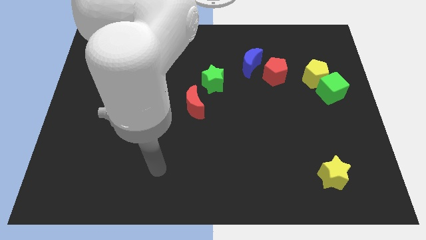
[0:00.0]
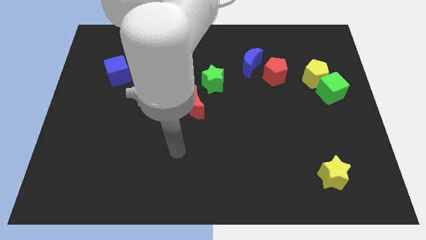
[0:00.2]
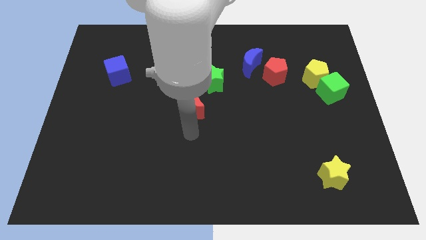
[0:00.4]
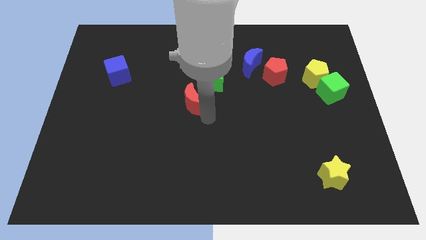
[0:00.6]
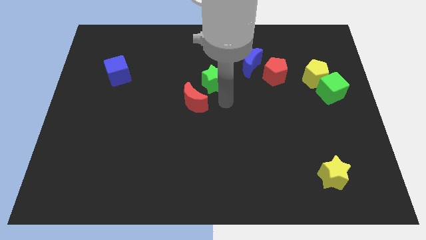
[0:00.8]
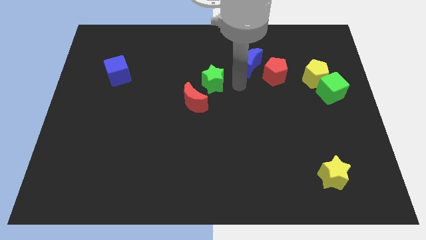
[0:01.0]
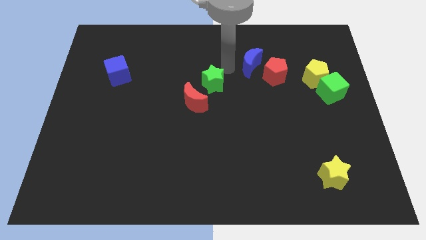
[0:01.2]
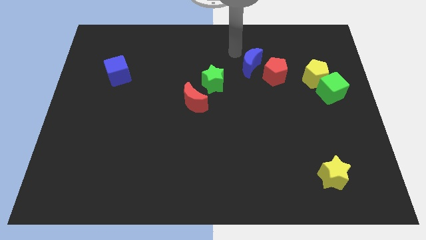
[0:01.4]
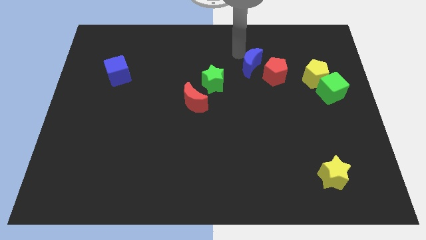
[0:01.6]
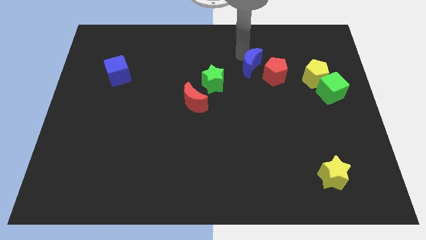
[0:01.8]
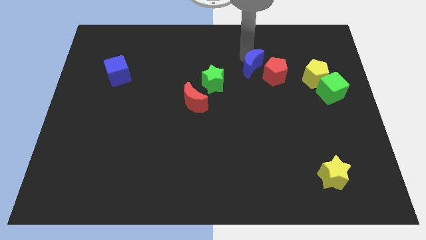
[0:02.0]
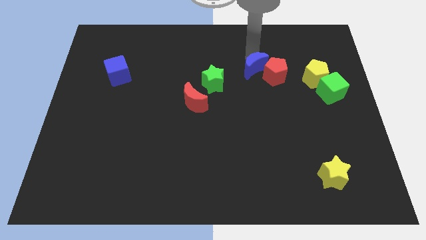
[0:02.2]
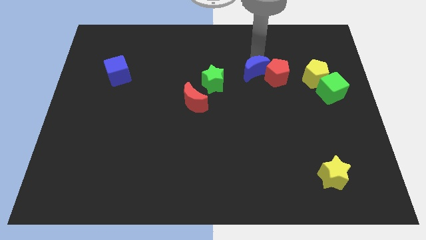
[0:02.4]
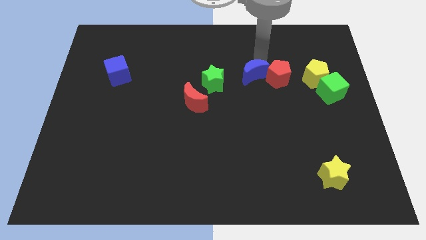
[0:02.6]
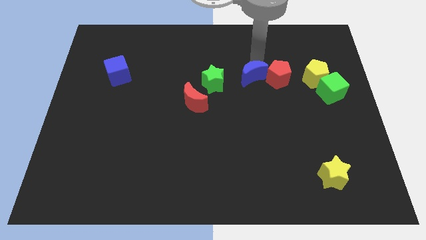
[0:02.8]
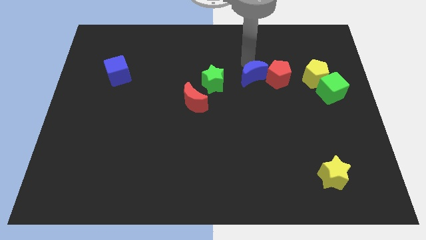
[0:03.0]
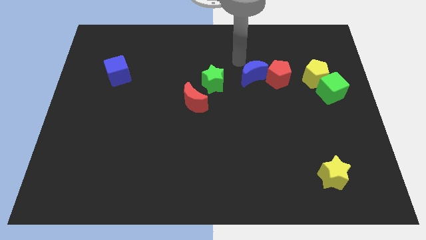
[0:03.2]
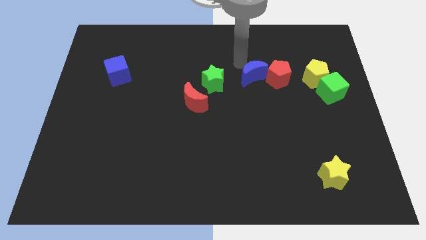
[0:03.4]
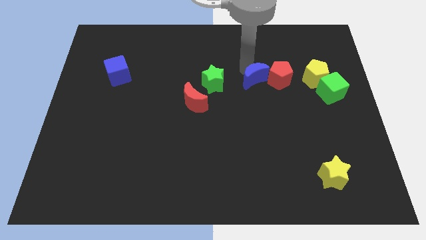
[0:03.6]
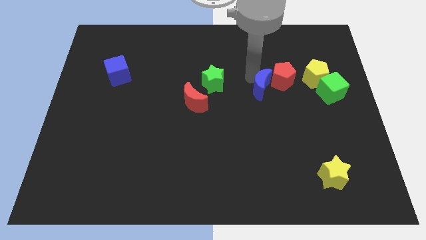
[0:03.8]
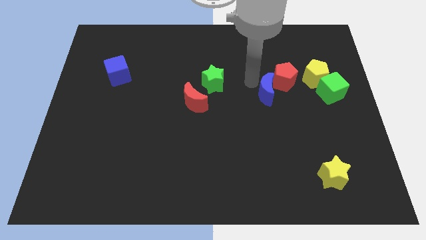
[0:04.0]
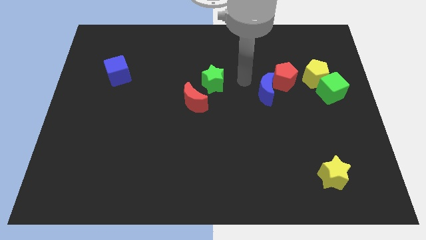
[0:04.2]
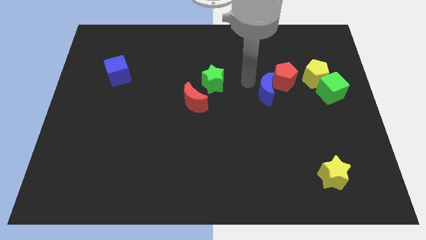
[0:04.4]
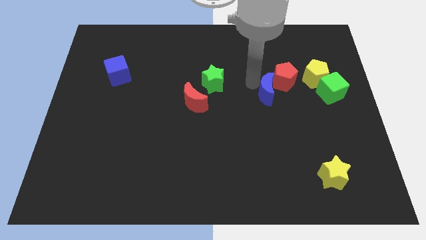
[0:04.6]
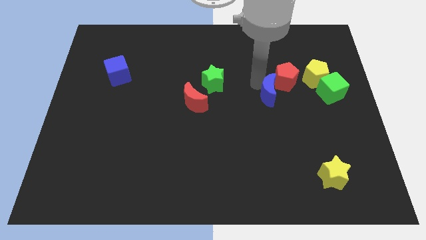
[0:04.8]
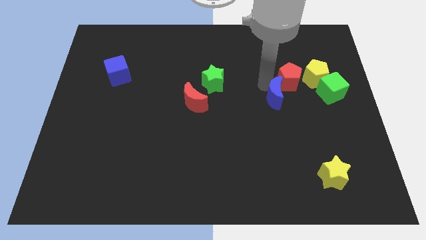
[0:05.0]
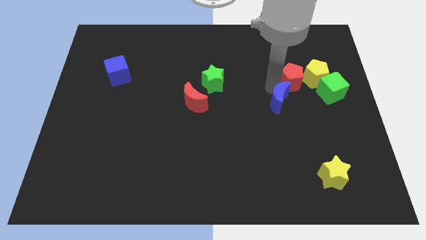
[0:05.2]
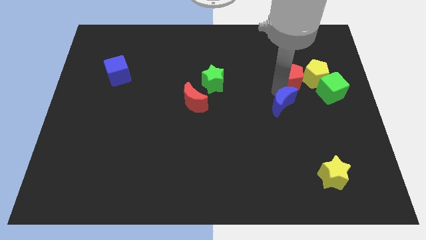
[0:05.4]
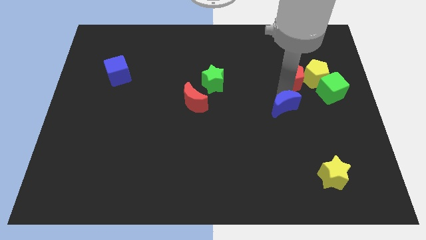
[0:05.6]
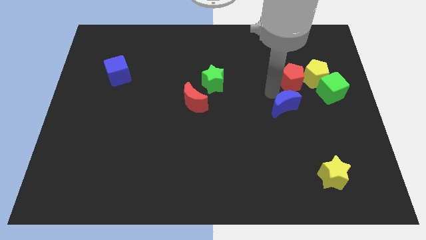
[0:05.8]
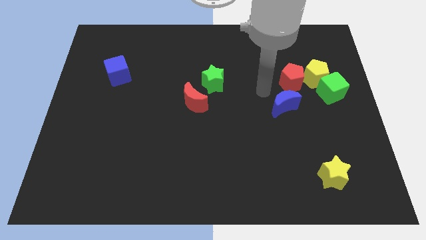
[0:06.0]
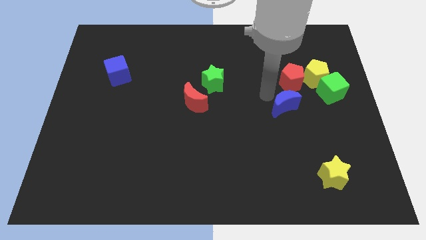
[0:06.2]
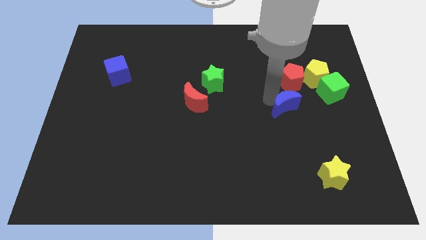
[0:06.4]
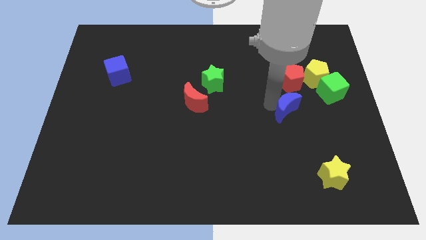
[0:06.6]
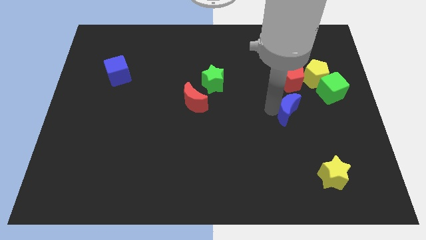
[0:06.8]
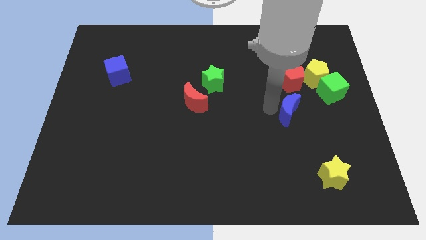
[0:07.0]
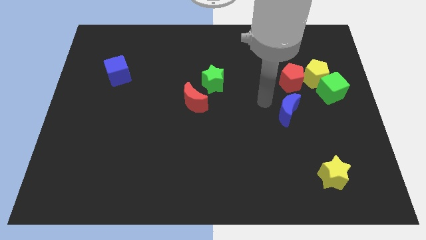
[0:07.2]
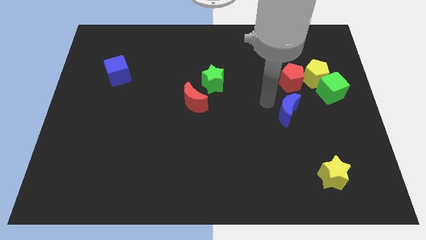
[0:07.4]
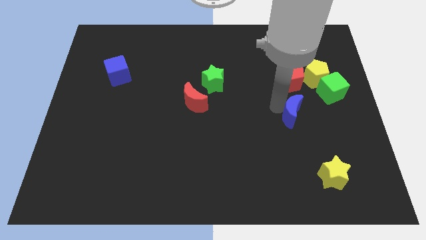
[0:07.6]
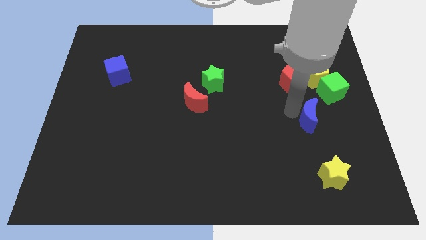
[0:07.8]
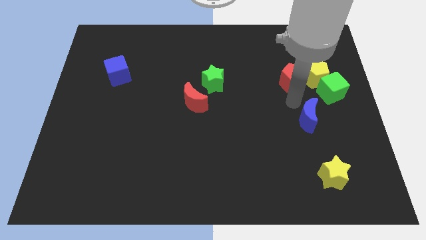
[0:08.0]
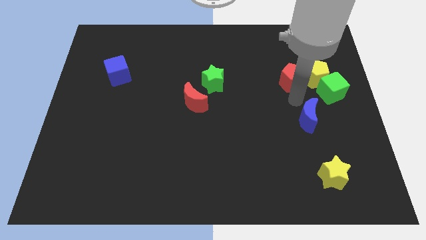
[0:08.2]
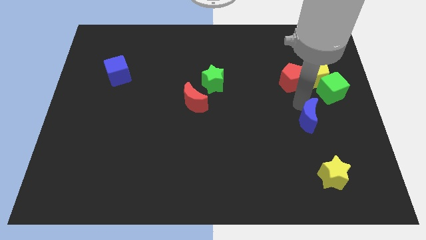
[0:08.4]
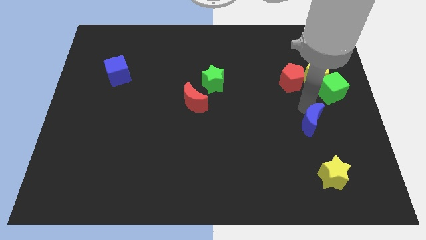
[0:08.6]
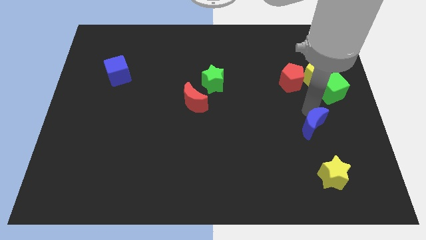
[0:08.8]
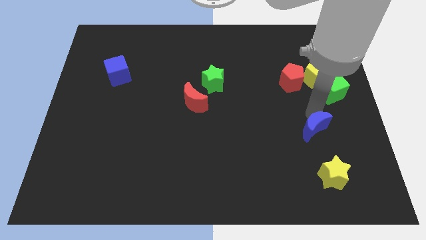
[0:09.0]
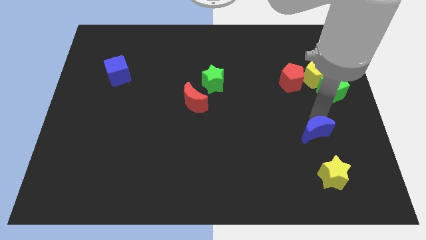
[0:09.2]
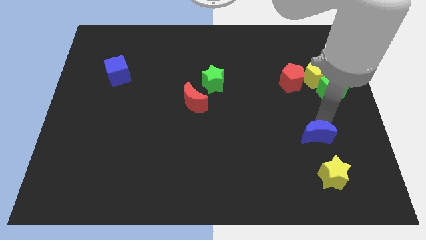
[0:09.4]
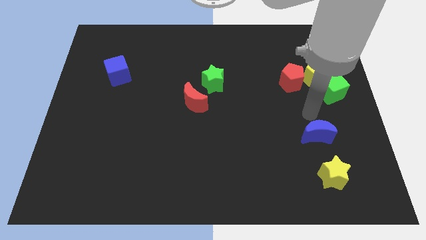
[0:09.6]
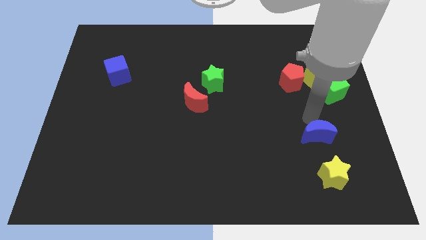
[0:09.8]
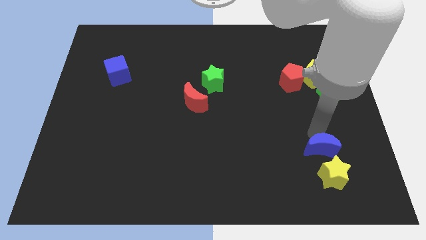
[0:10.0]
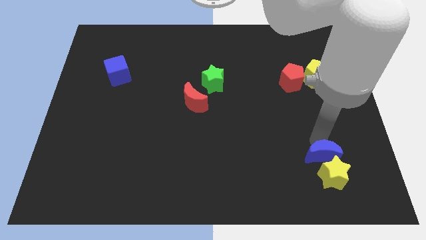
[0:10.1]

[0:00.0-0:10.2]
move the blue moon next to the yellow star

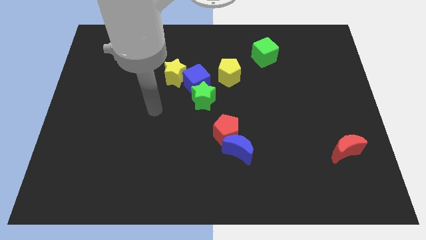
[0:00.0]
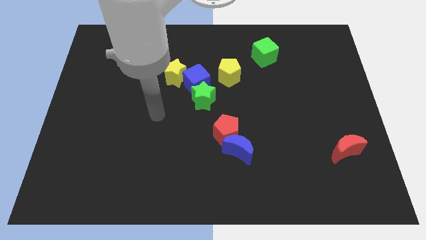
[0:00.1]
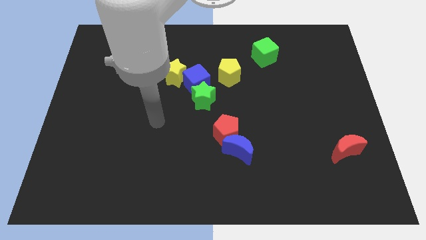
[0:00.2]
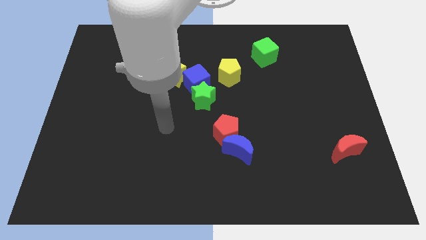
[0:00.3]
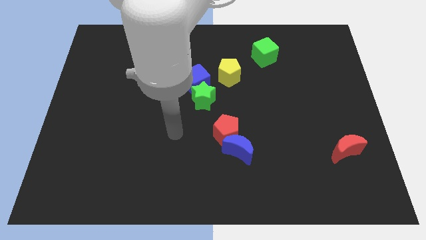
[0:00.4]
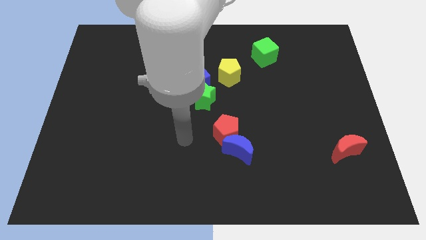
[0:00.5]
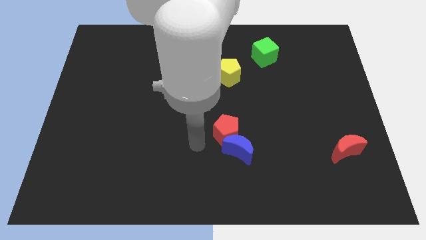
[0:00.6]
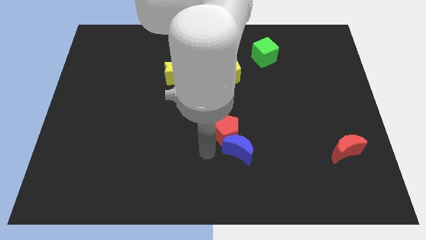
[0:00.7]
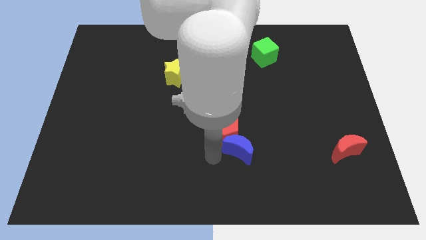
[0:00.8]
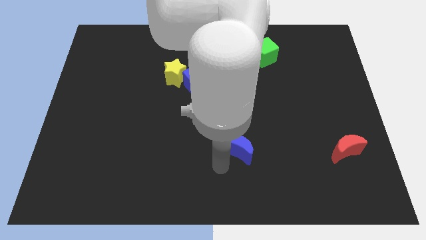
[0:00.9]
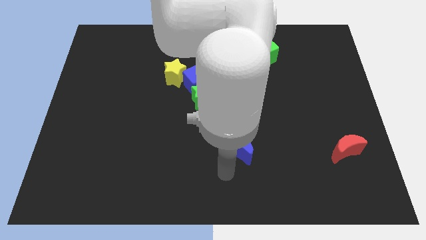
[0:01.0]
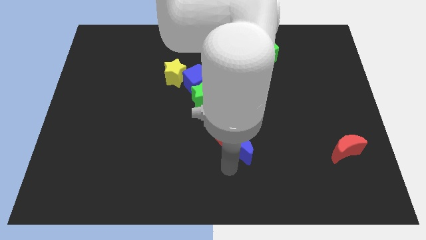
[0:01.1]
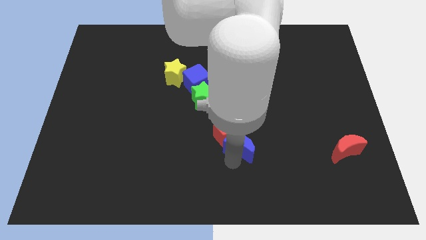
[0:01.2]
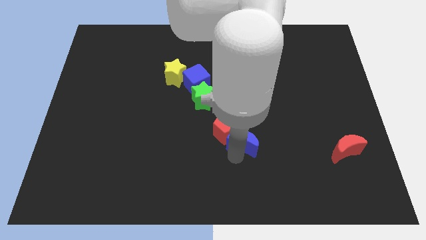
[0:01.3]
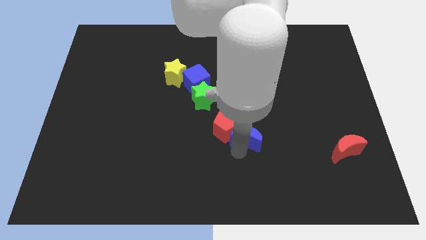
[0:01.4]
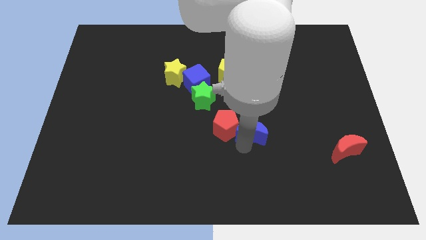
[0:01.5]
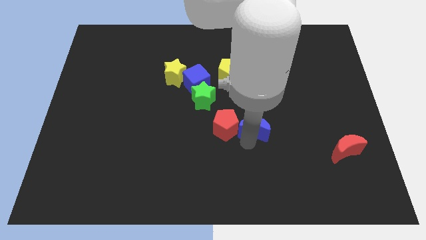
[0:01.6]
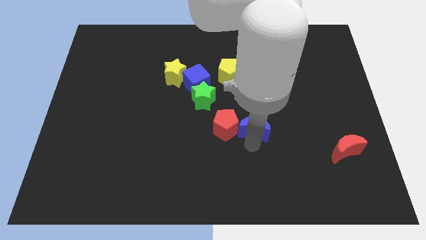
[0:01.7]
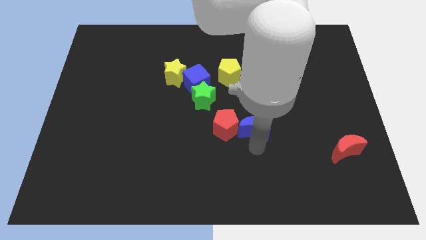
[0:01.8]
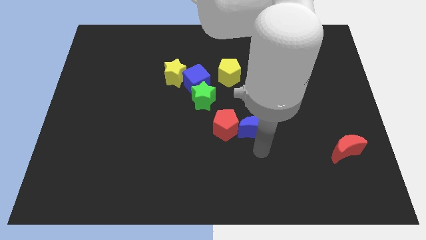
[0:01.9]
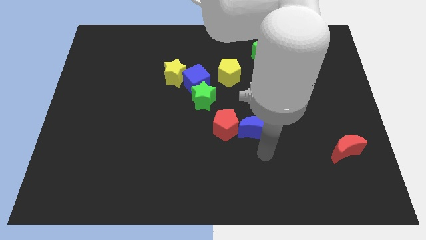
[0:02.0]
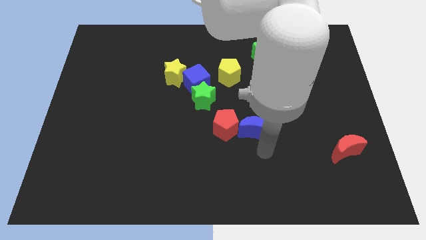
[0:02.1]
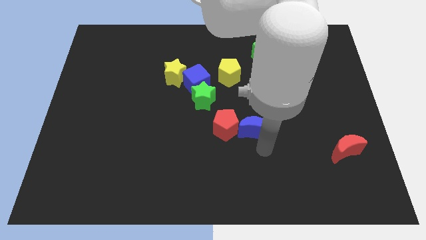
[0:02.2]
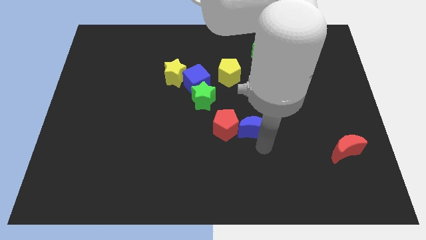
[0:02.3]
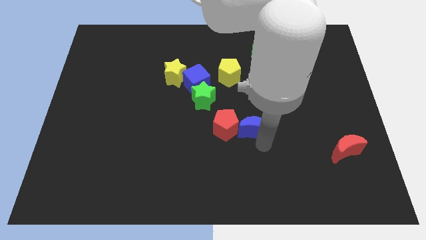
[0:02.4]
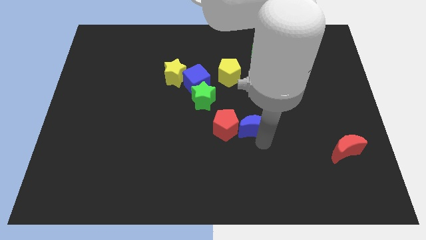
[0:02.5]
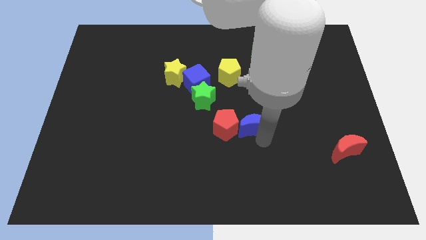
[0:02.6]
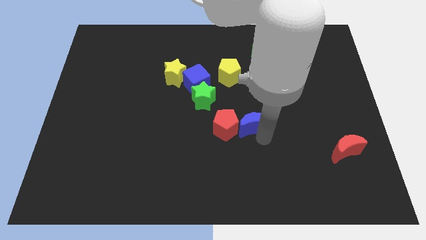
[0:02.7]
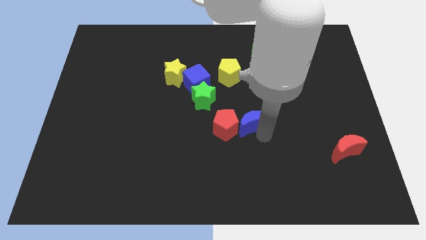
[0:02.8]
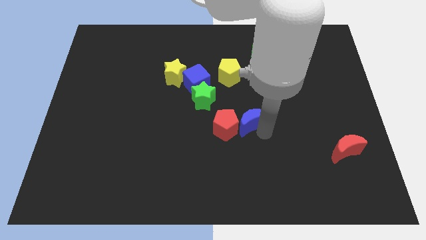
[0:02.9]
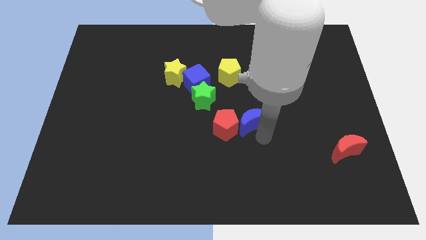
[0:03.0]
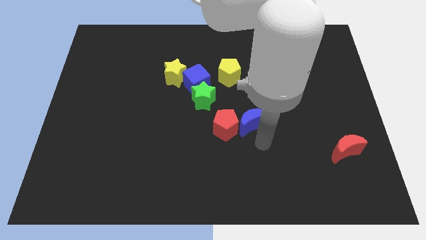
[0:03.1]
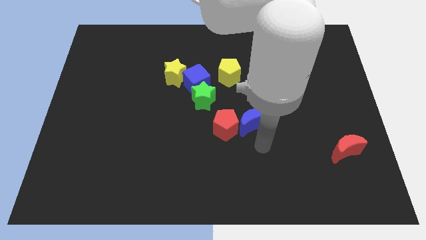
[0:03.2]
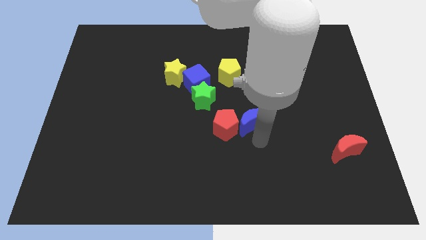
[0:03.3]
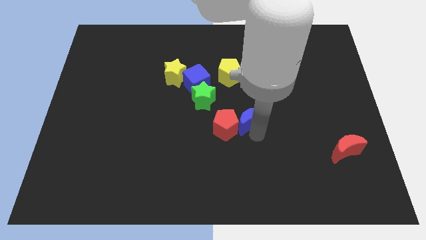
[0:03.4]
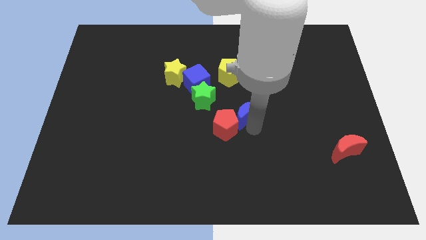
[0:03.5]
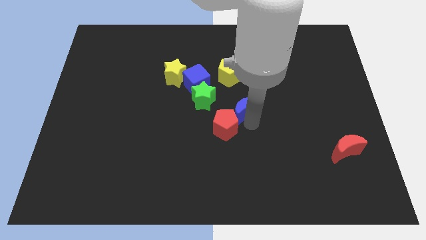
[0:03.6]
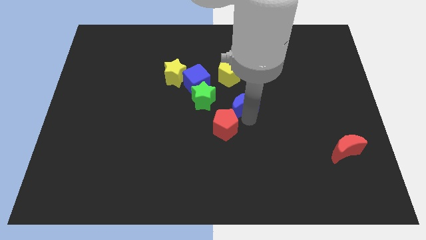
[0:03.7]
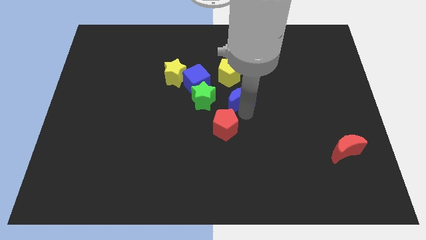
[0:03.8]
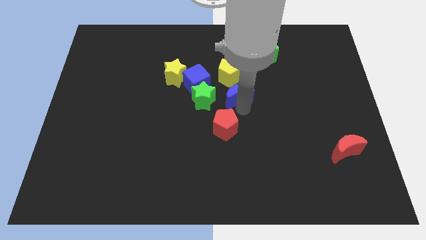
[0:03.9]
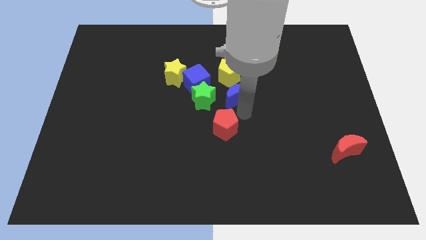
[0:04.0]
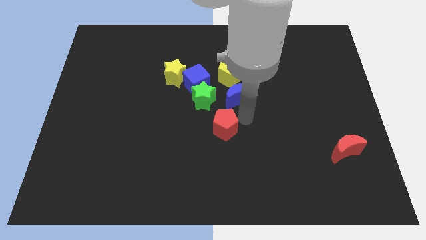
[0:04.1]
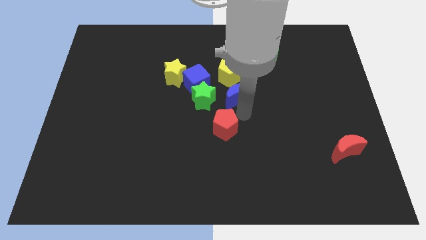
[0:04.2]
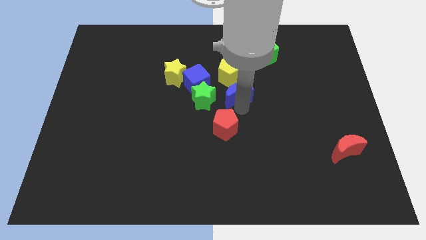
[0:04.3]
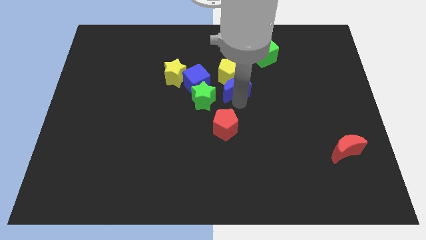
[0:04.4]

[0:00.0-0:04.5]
move the blue moon towards the yellow pentagon
